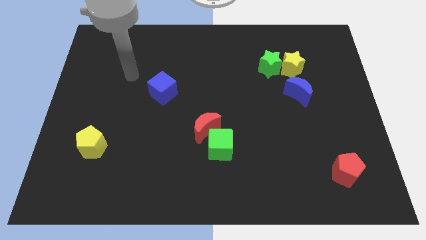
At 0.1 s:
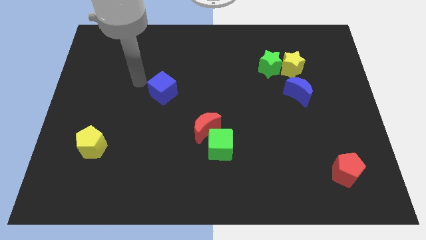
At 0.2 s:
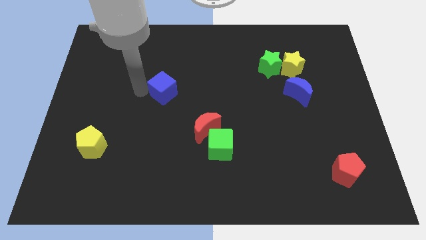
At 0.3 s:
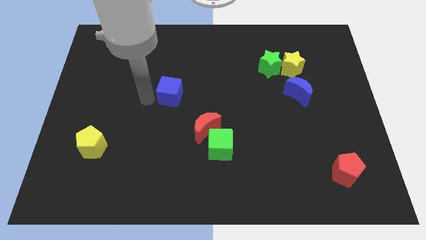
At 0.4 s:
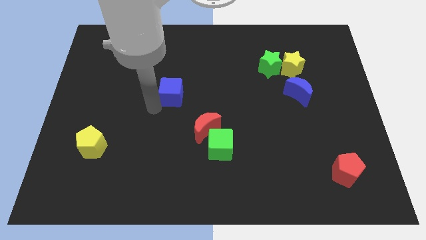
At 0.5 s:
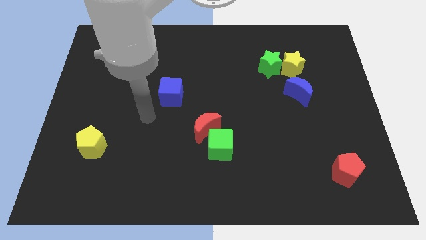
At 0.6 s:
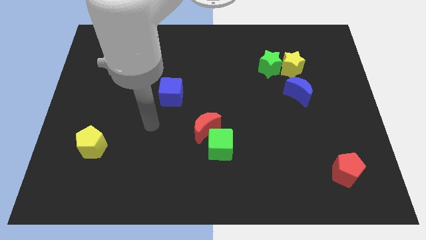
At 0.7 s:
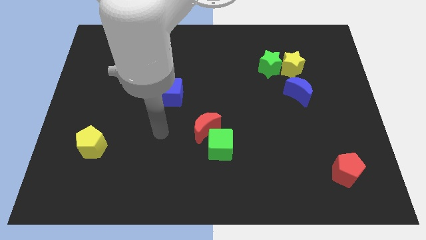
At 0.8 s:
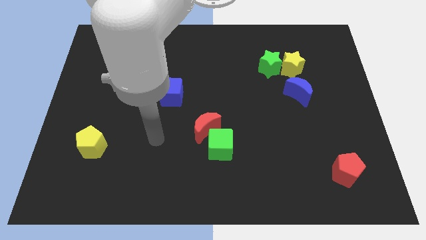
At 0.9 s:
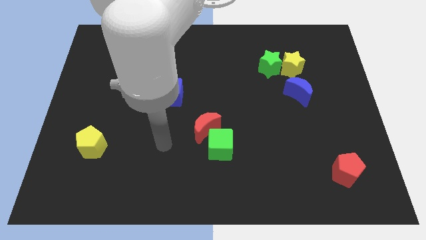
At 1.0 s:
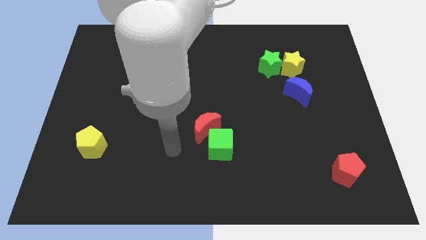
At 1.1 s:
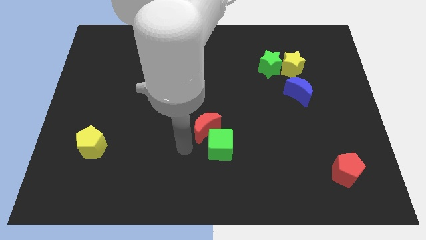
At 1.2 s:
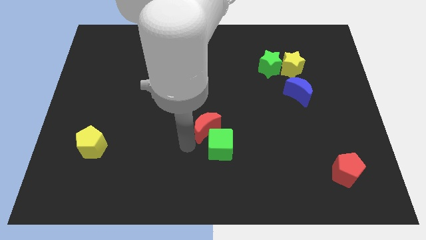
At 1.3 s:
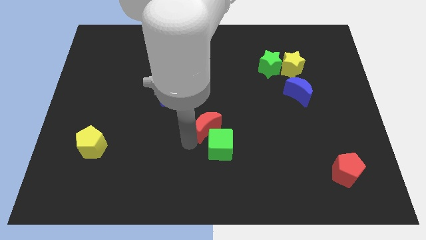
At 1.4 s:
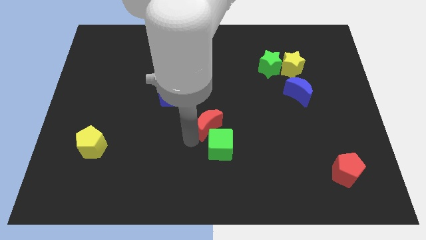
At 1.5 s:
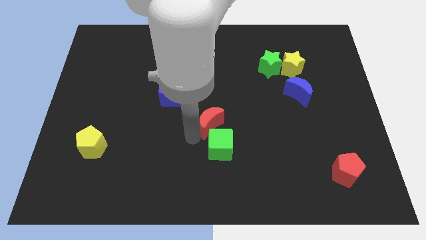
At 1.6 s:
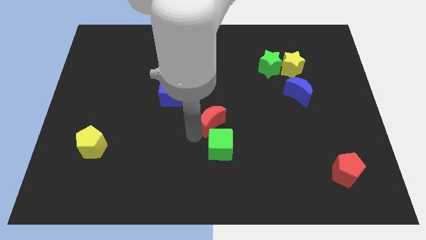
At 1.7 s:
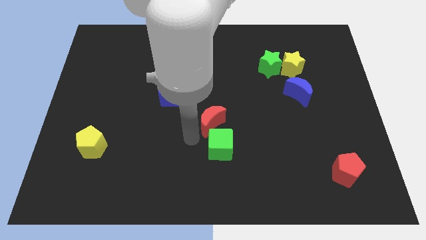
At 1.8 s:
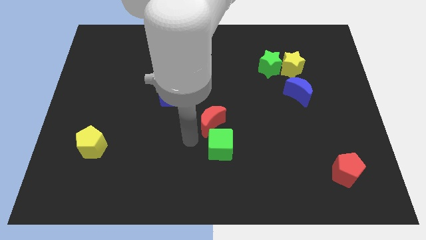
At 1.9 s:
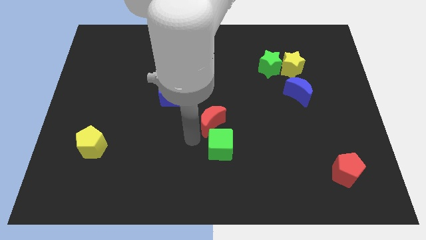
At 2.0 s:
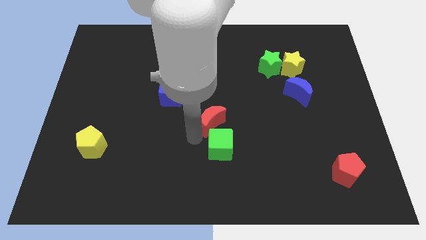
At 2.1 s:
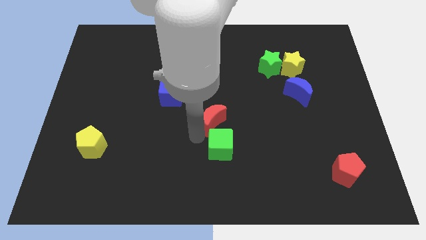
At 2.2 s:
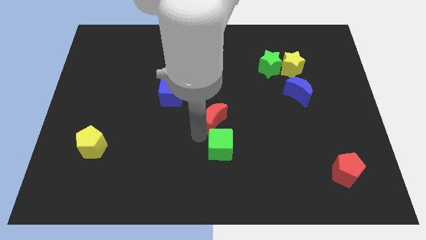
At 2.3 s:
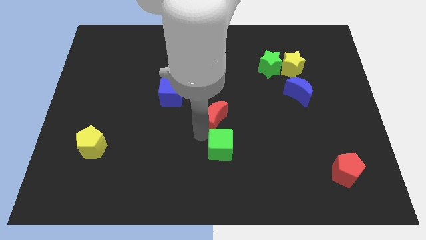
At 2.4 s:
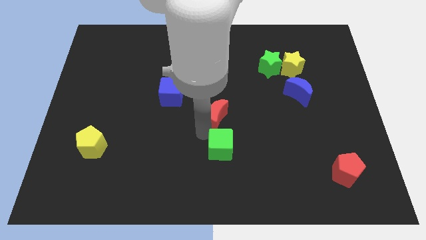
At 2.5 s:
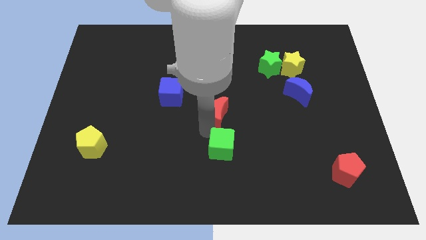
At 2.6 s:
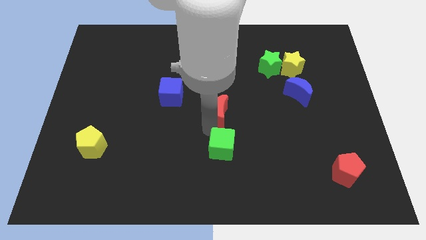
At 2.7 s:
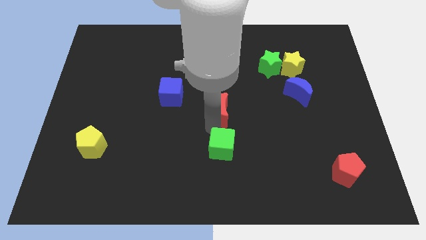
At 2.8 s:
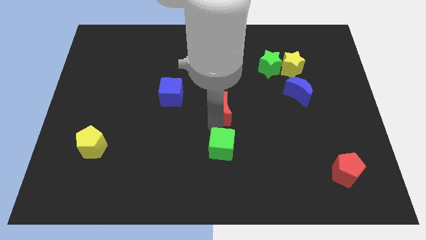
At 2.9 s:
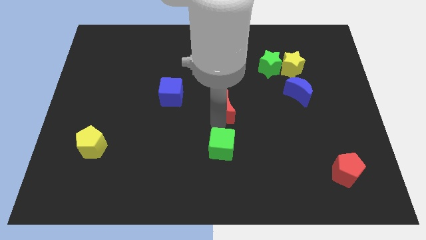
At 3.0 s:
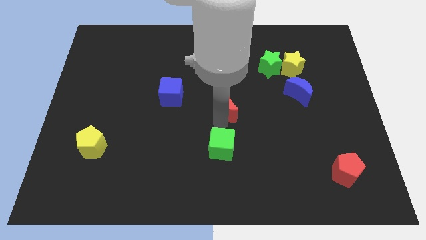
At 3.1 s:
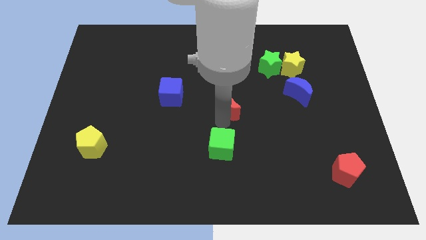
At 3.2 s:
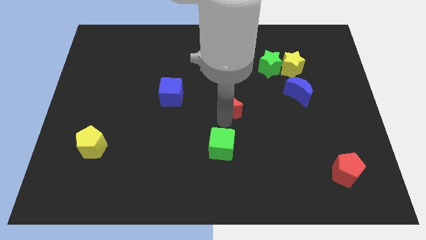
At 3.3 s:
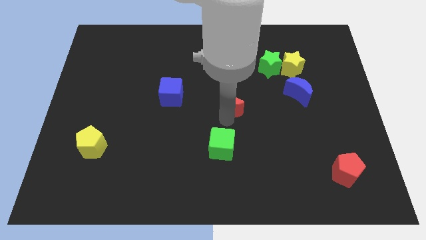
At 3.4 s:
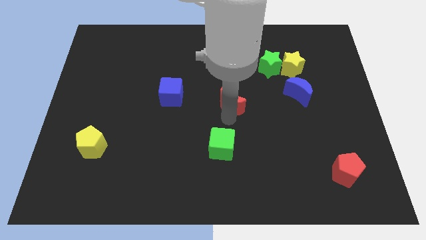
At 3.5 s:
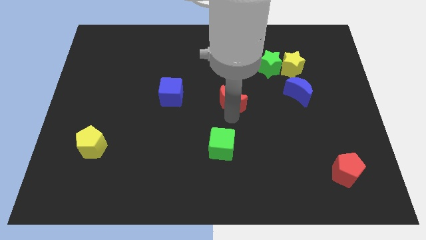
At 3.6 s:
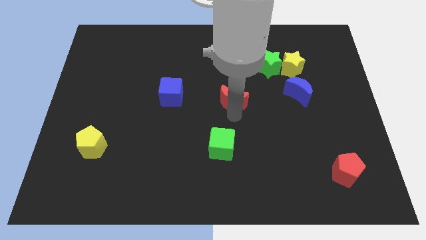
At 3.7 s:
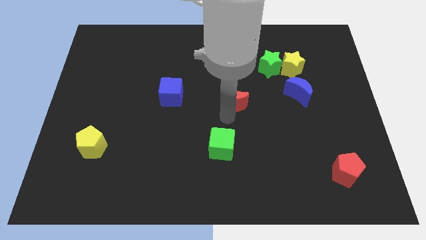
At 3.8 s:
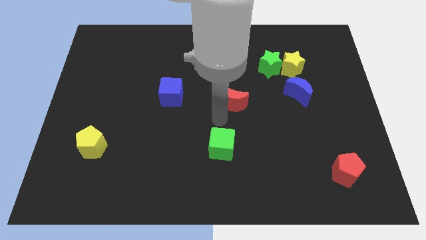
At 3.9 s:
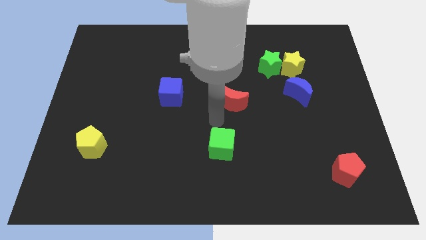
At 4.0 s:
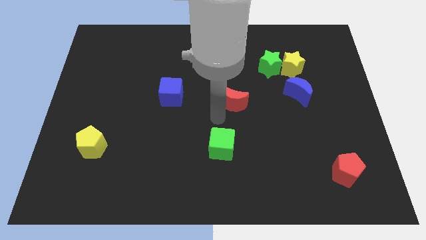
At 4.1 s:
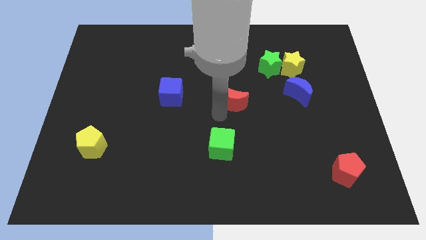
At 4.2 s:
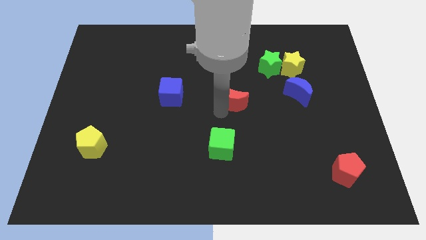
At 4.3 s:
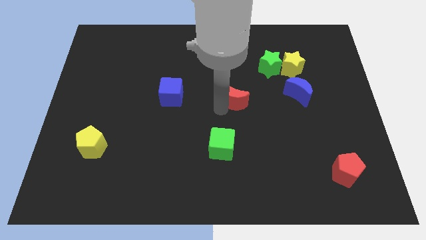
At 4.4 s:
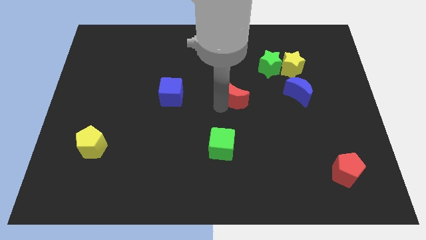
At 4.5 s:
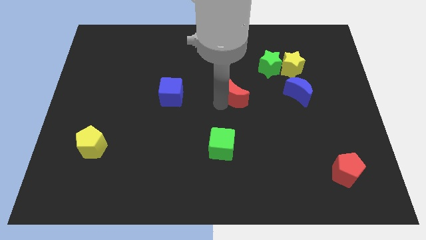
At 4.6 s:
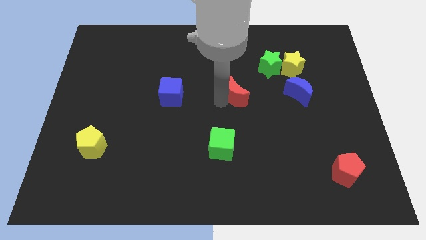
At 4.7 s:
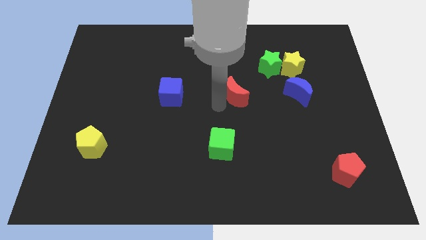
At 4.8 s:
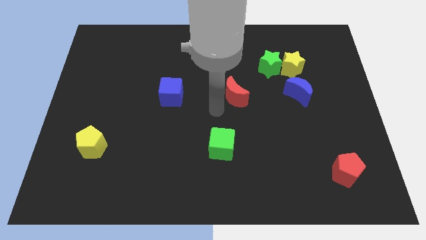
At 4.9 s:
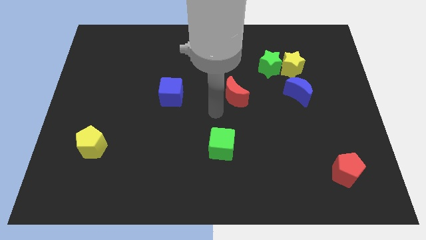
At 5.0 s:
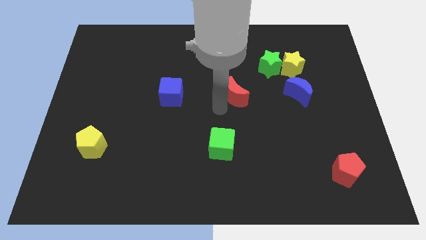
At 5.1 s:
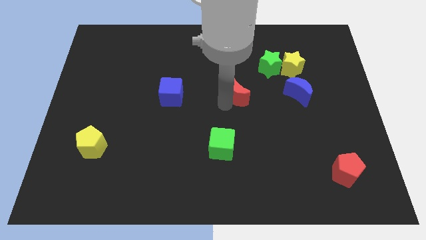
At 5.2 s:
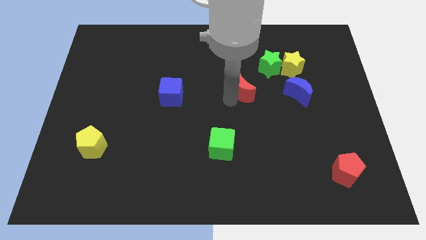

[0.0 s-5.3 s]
push the red moon diagonally down and to the left of the green star

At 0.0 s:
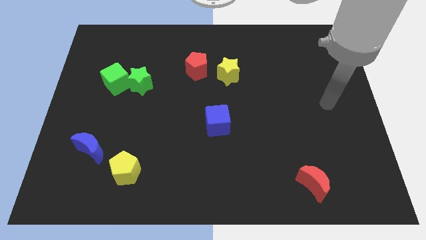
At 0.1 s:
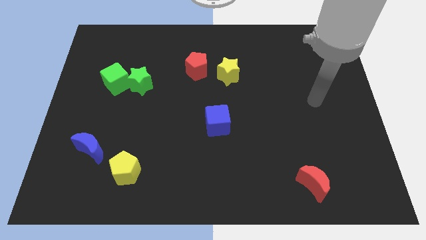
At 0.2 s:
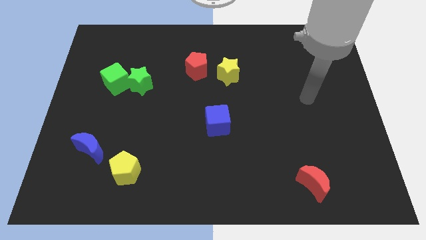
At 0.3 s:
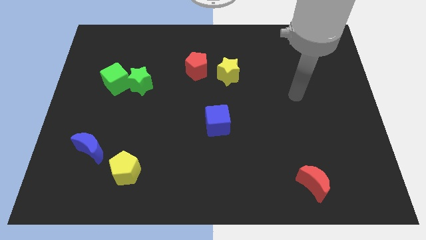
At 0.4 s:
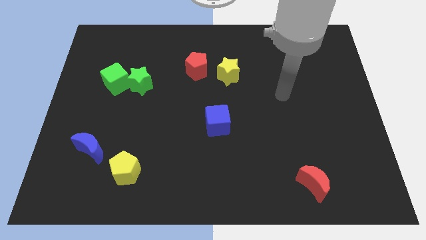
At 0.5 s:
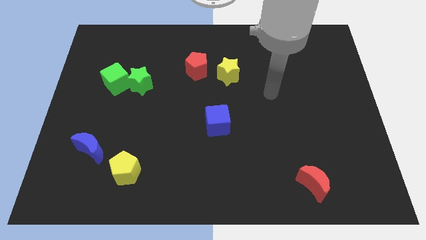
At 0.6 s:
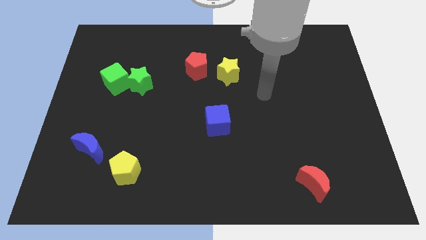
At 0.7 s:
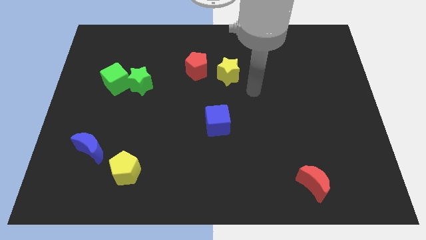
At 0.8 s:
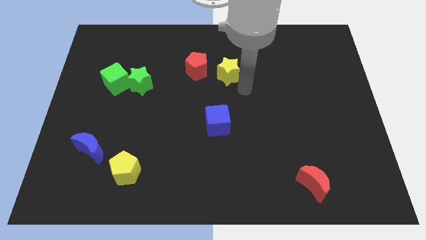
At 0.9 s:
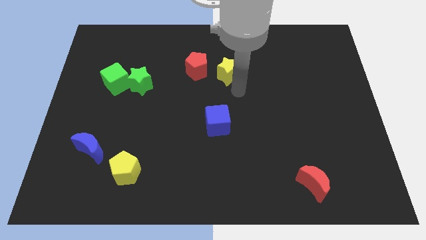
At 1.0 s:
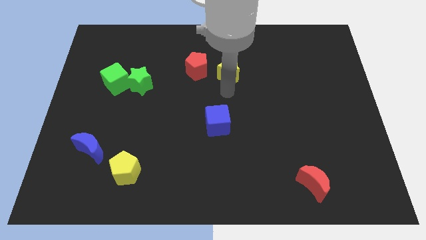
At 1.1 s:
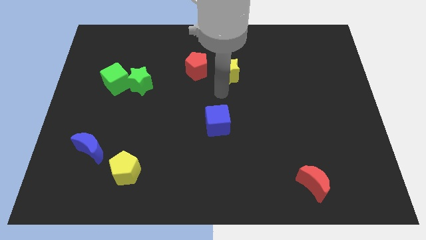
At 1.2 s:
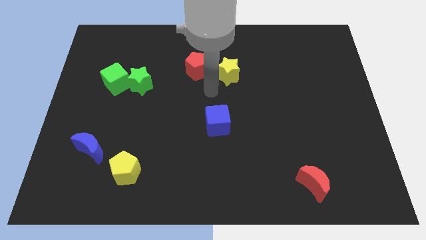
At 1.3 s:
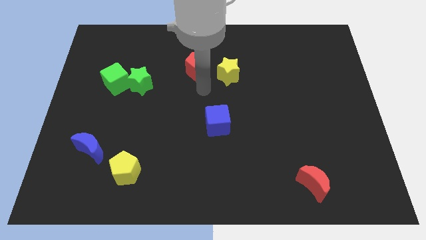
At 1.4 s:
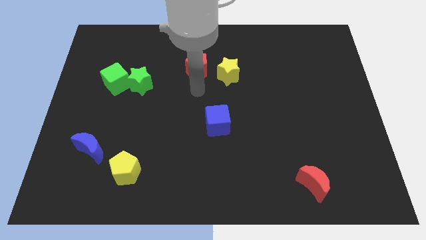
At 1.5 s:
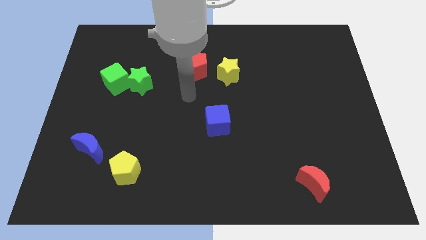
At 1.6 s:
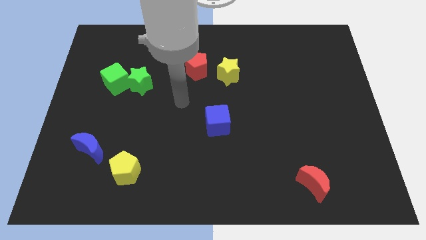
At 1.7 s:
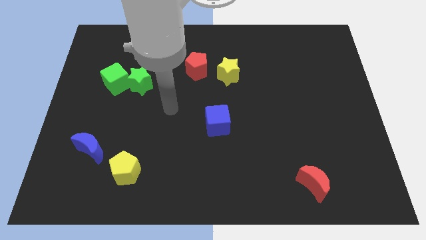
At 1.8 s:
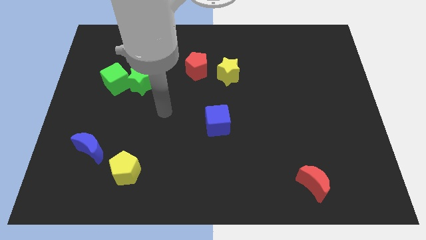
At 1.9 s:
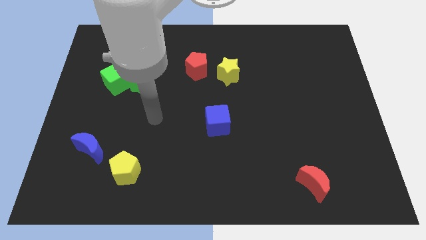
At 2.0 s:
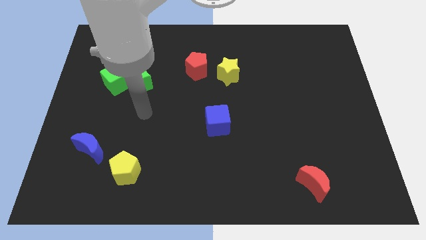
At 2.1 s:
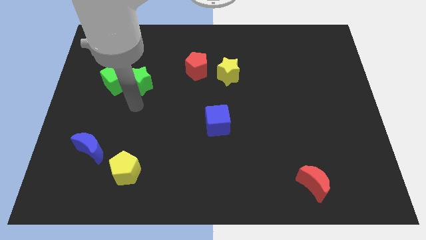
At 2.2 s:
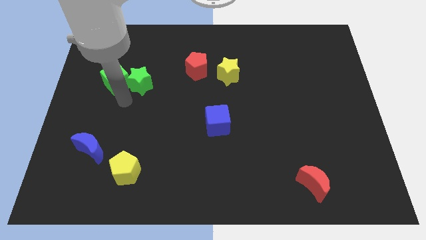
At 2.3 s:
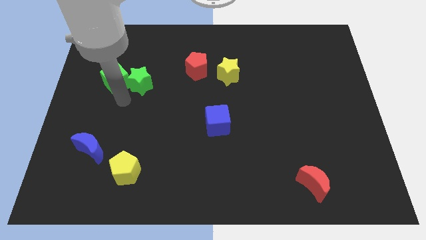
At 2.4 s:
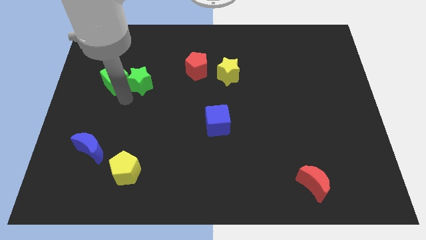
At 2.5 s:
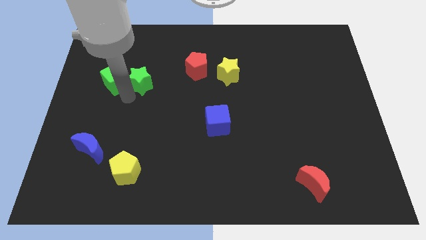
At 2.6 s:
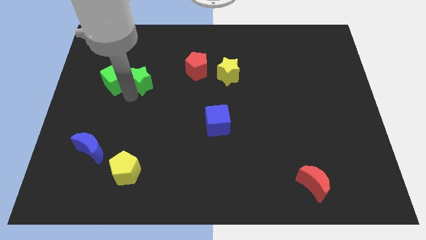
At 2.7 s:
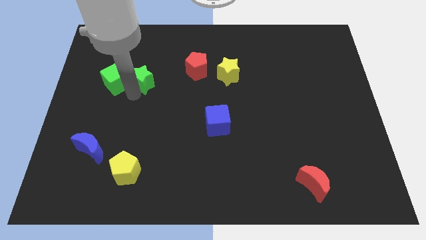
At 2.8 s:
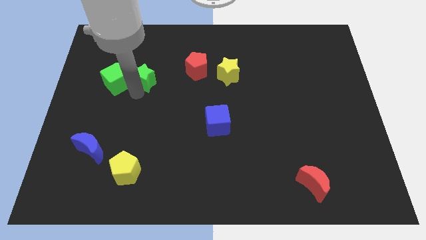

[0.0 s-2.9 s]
put the green star left of the red pentagon
